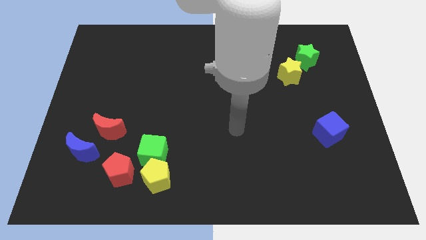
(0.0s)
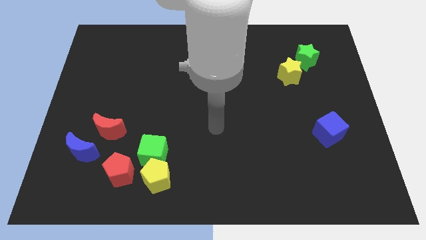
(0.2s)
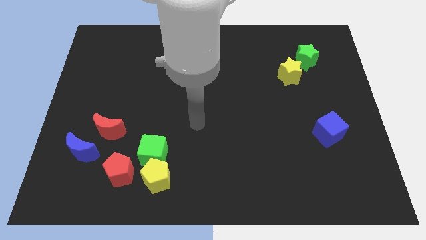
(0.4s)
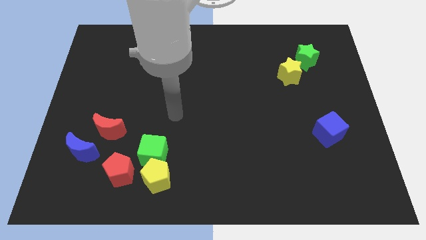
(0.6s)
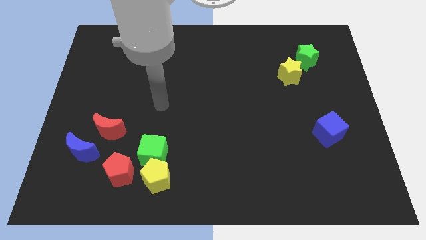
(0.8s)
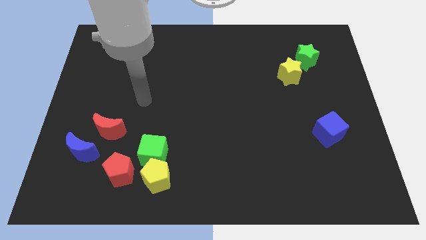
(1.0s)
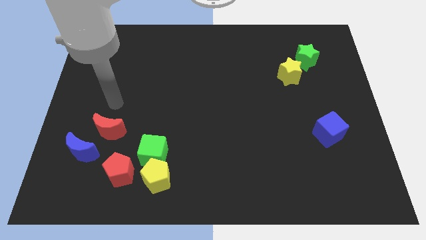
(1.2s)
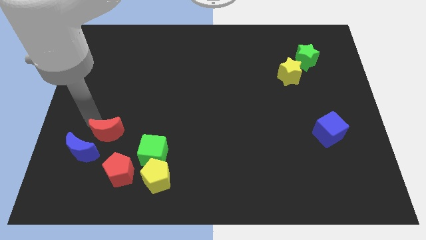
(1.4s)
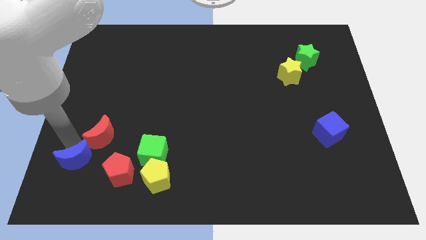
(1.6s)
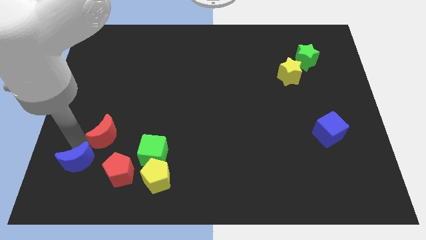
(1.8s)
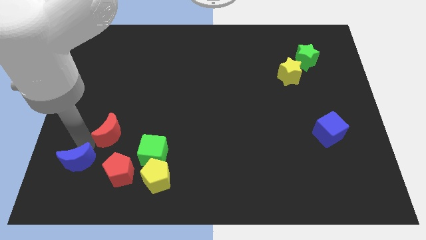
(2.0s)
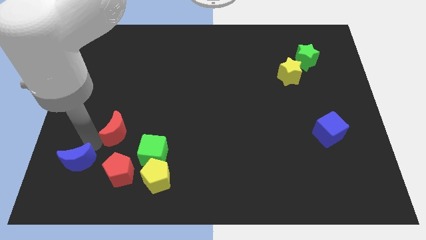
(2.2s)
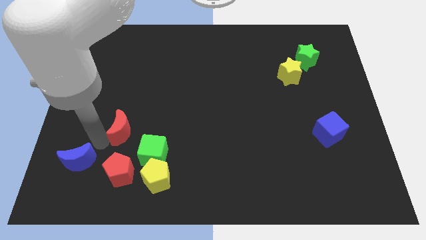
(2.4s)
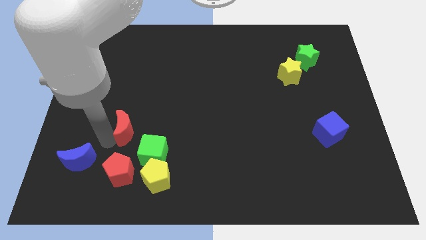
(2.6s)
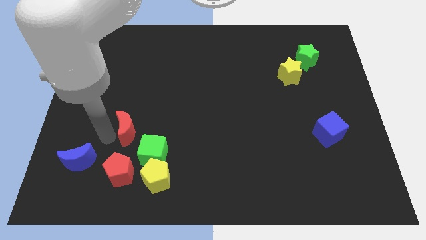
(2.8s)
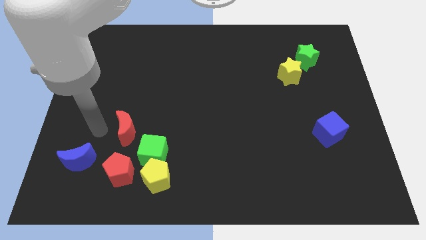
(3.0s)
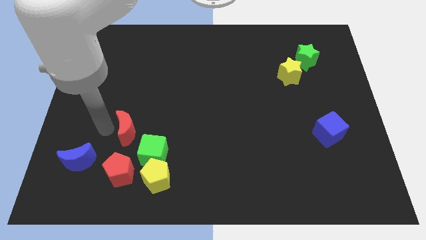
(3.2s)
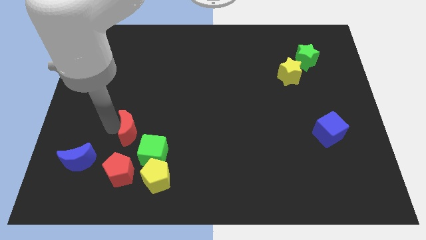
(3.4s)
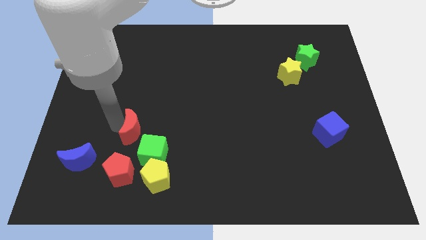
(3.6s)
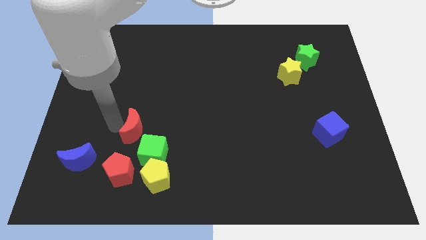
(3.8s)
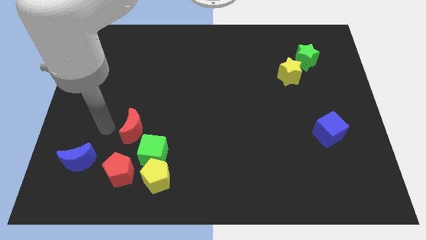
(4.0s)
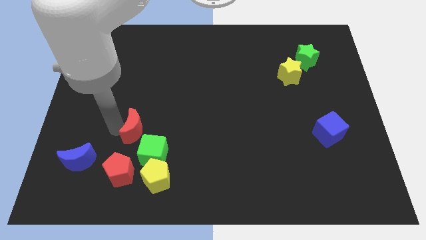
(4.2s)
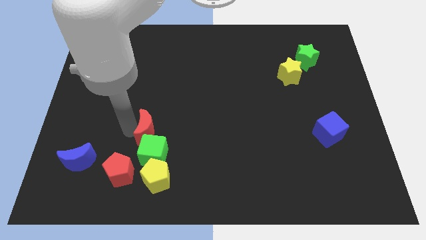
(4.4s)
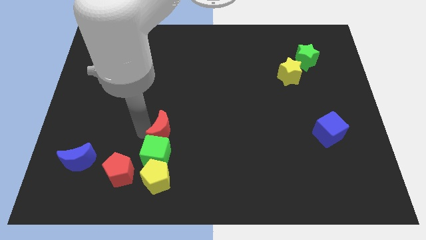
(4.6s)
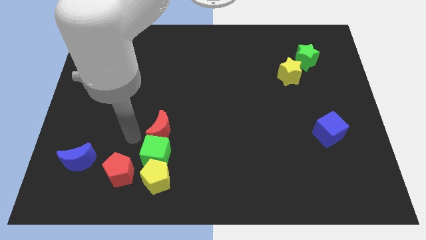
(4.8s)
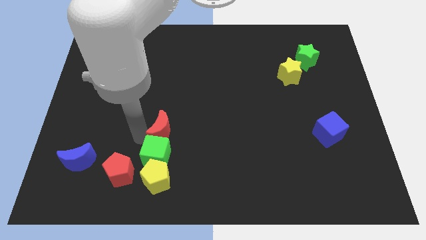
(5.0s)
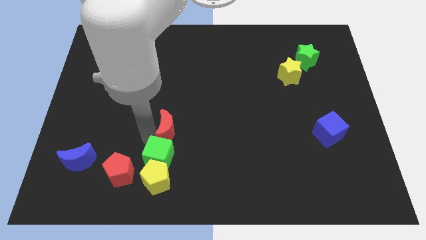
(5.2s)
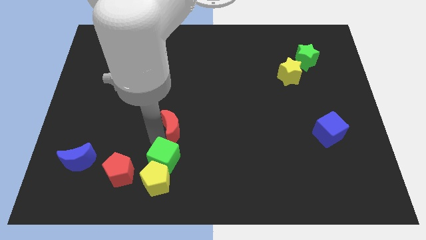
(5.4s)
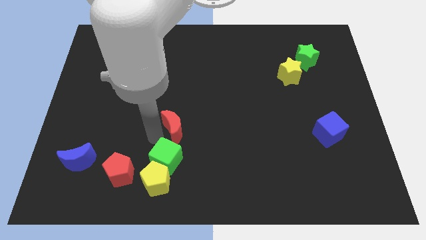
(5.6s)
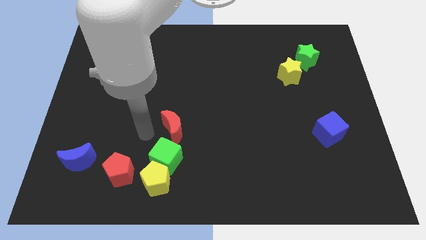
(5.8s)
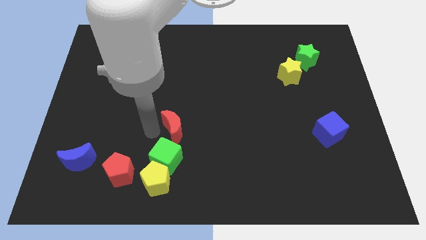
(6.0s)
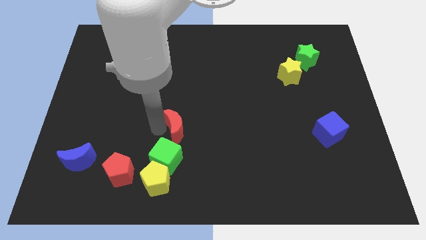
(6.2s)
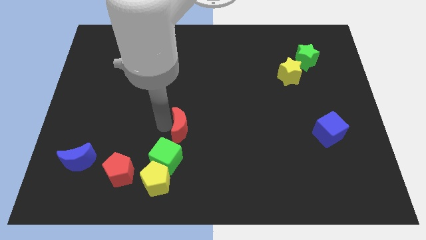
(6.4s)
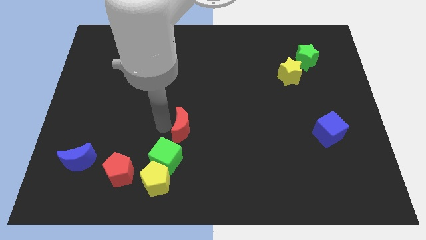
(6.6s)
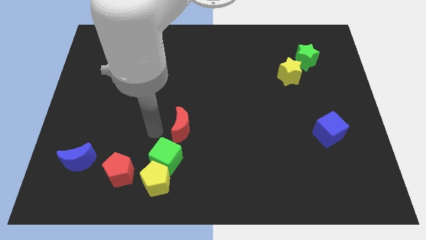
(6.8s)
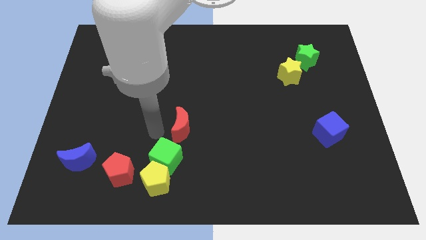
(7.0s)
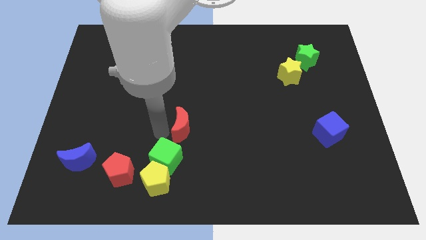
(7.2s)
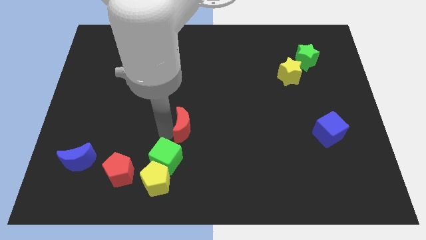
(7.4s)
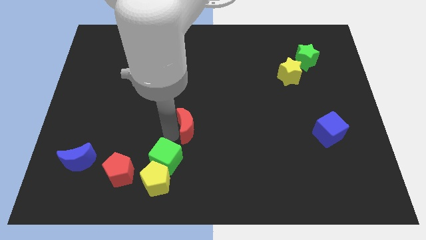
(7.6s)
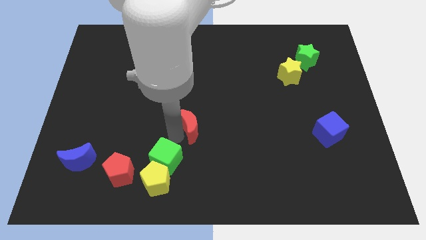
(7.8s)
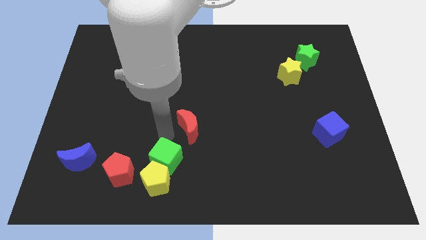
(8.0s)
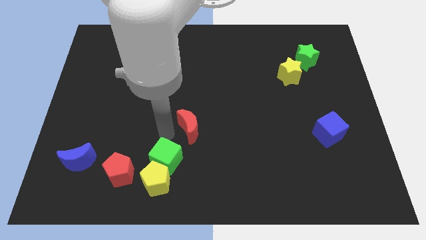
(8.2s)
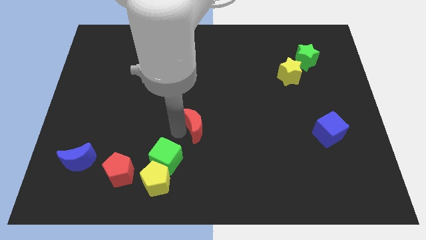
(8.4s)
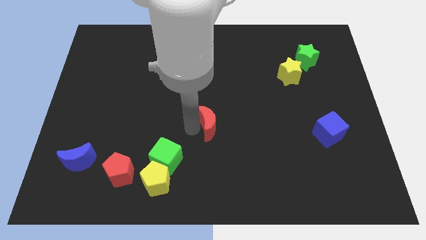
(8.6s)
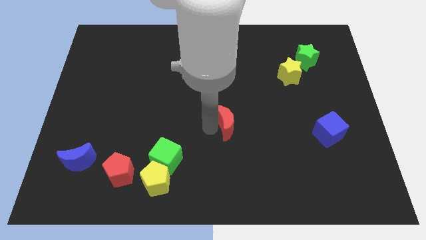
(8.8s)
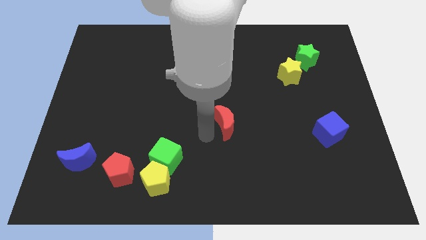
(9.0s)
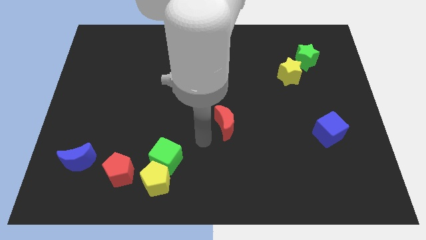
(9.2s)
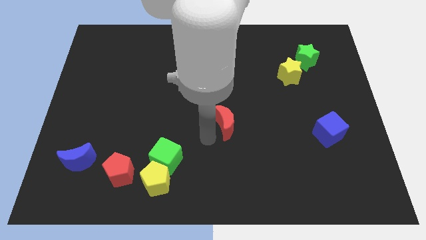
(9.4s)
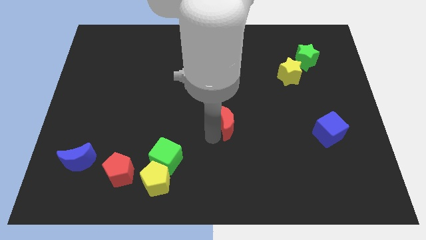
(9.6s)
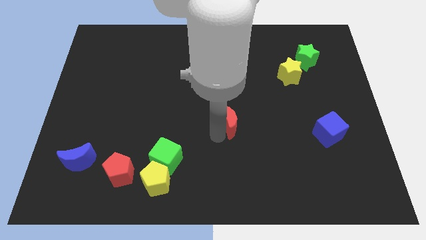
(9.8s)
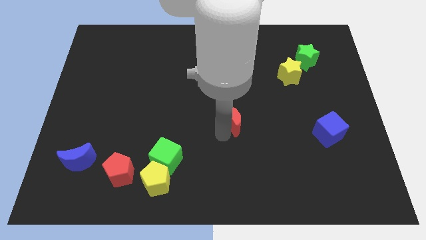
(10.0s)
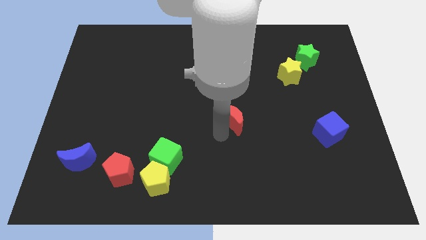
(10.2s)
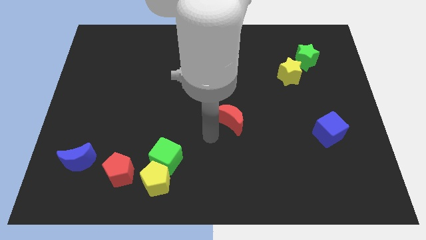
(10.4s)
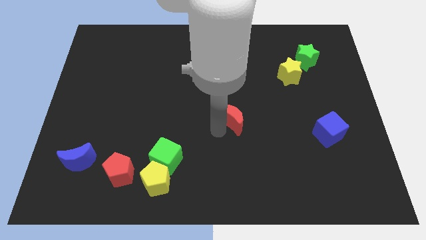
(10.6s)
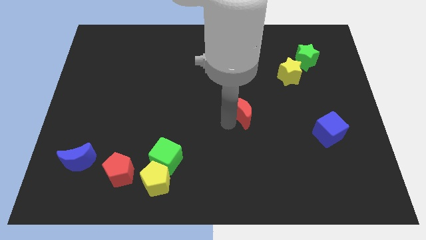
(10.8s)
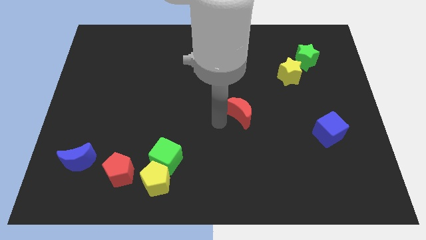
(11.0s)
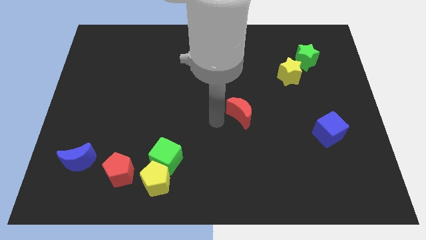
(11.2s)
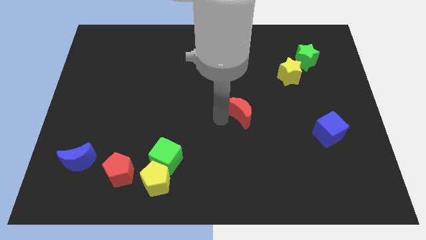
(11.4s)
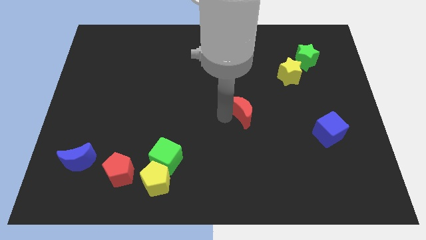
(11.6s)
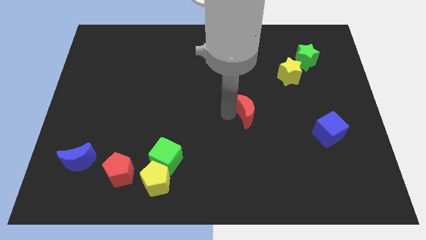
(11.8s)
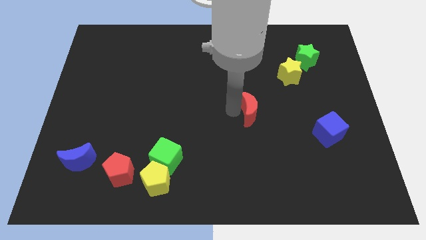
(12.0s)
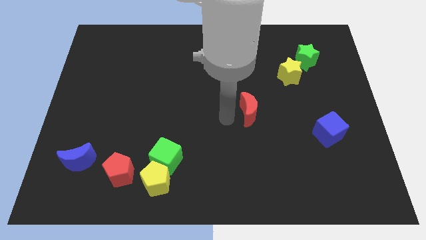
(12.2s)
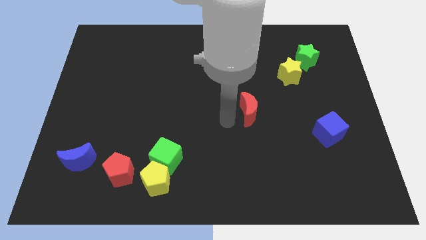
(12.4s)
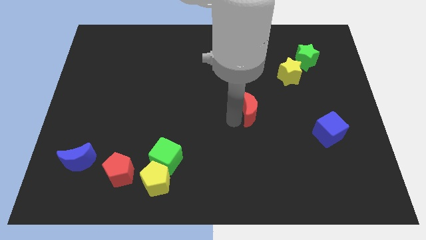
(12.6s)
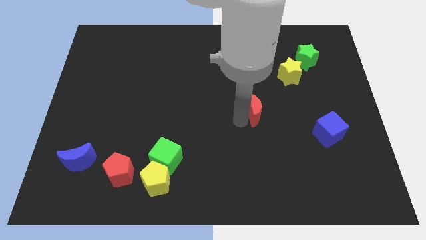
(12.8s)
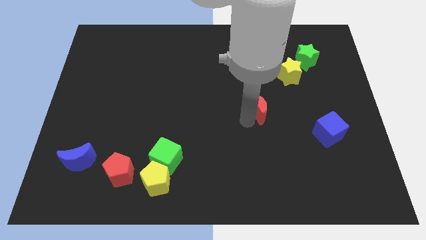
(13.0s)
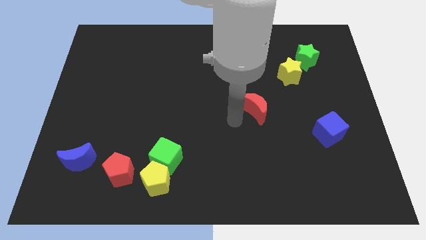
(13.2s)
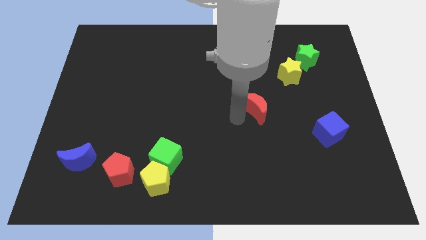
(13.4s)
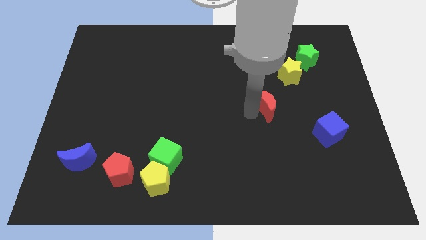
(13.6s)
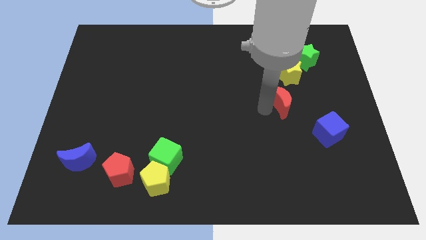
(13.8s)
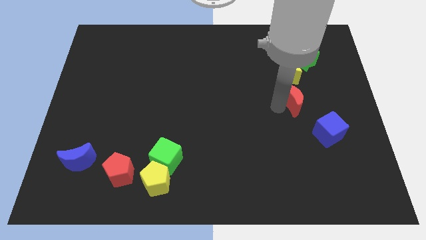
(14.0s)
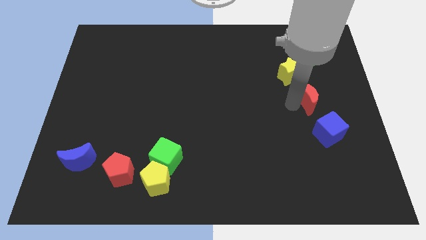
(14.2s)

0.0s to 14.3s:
slide the red moon to the bottom right side of the yellow star
